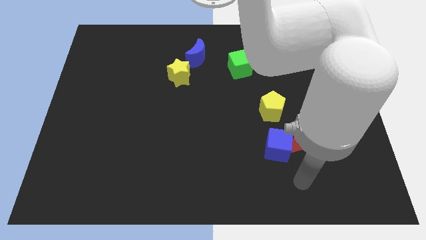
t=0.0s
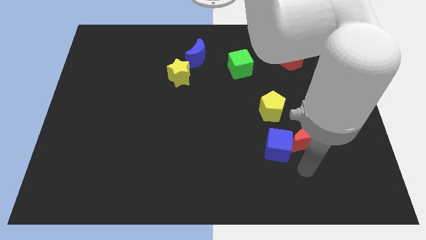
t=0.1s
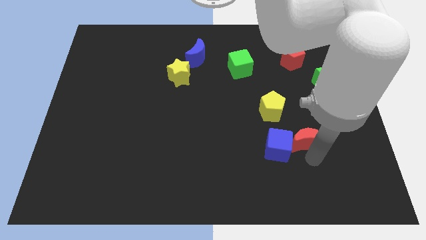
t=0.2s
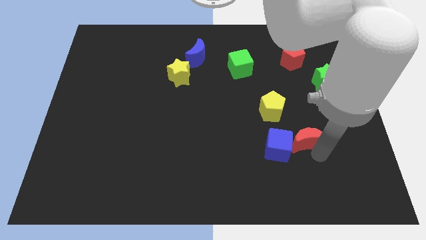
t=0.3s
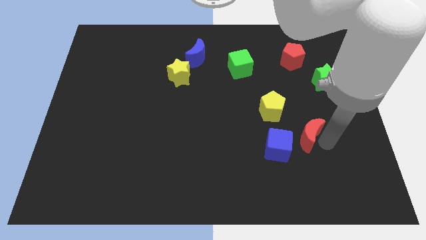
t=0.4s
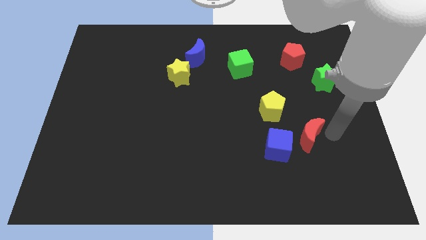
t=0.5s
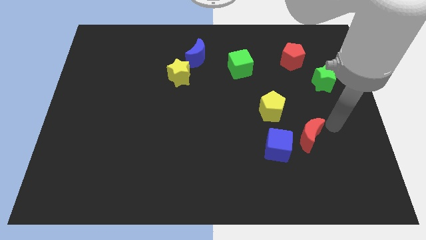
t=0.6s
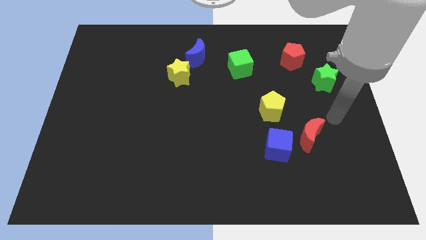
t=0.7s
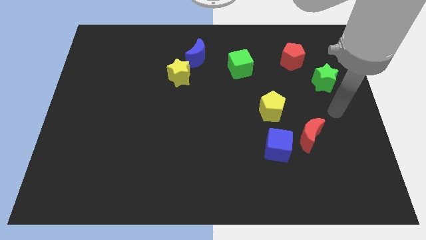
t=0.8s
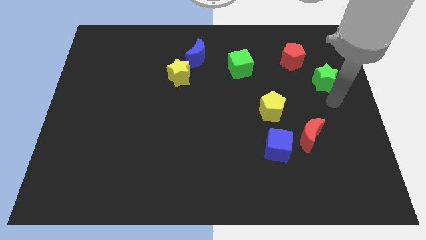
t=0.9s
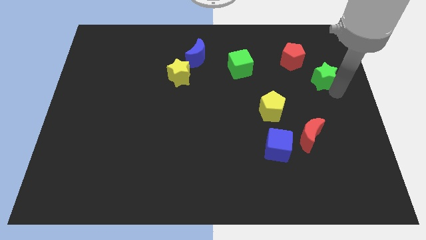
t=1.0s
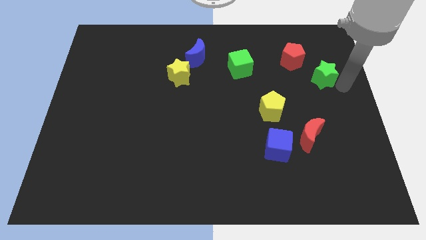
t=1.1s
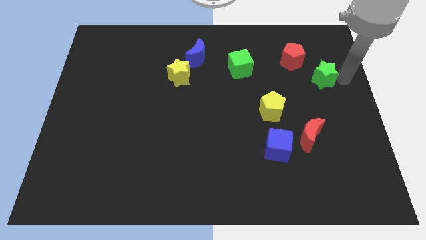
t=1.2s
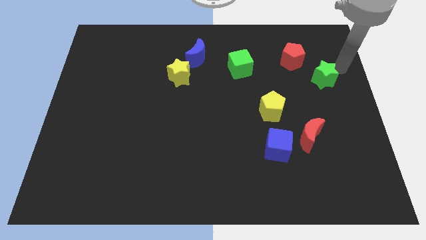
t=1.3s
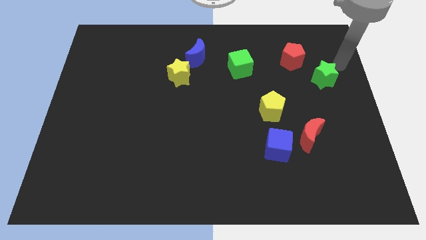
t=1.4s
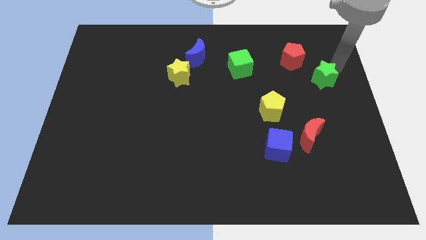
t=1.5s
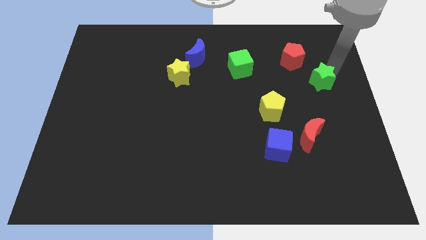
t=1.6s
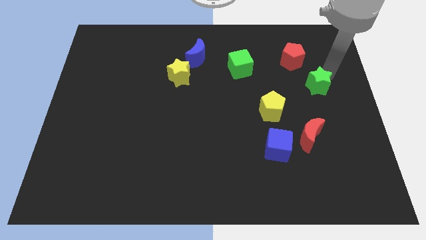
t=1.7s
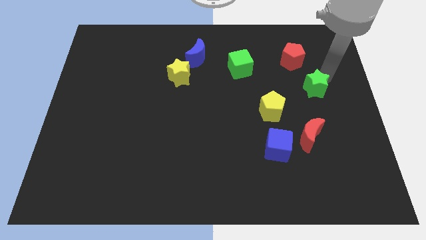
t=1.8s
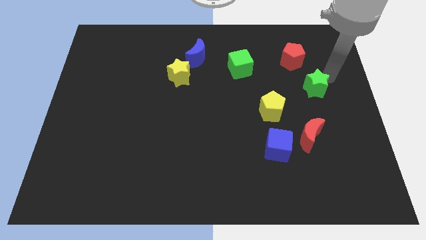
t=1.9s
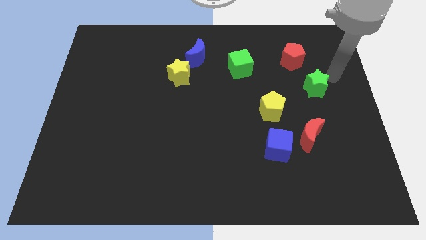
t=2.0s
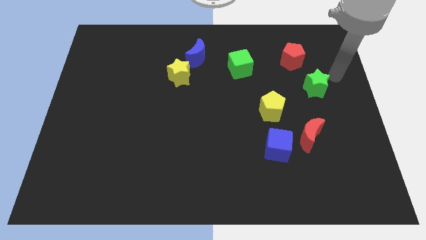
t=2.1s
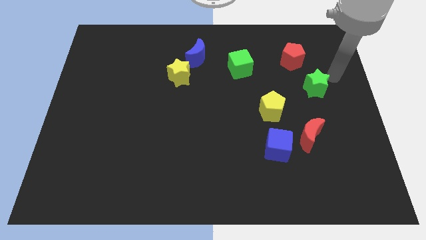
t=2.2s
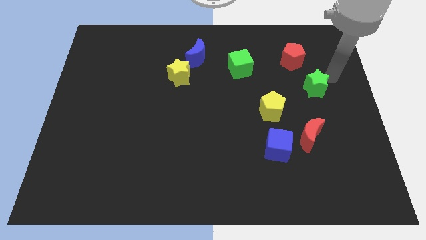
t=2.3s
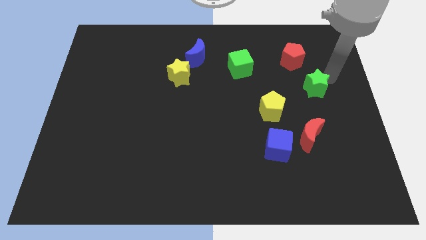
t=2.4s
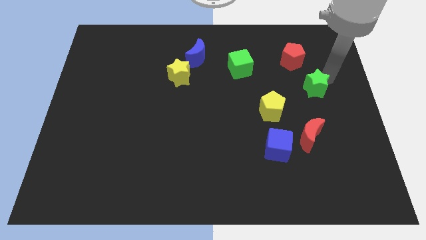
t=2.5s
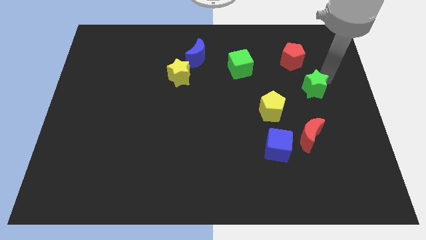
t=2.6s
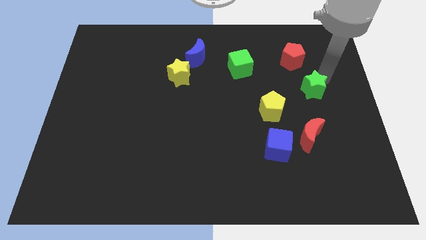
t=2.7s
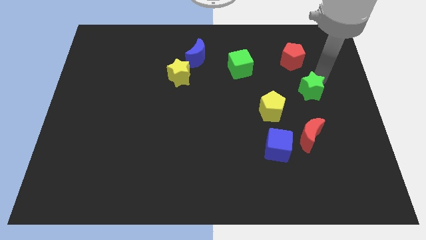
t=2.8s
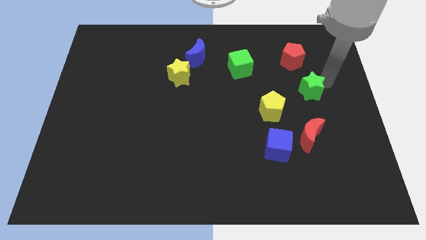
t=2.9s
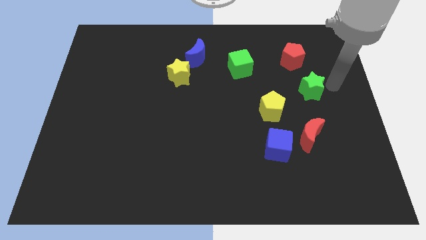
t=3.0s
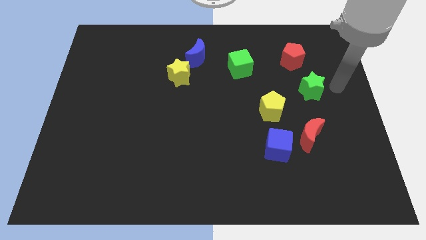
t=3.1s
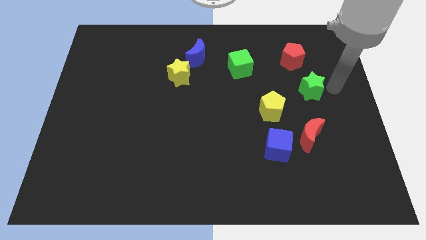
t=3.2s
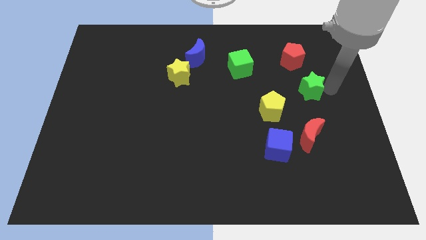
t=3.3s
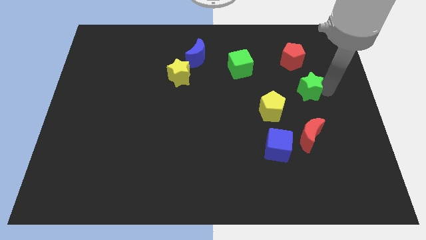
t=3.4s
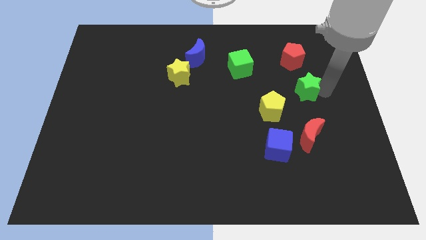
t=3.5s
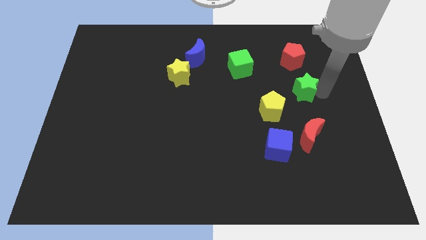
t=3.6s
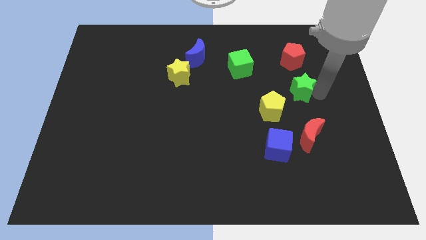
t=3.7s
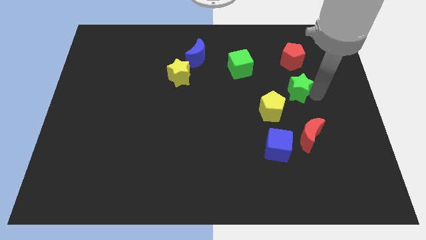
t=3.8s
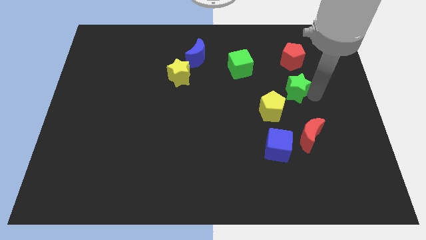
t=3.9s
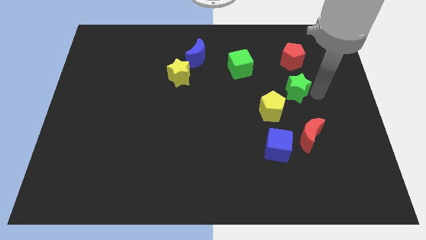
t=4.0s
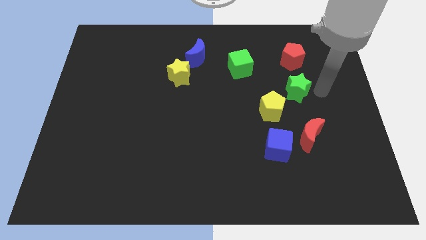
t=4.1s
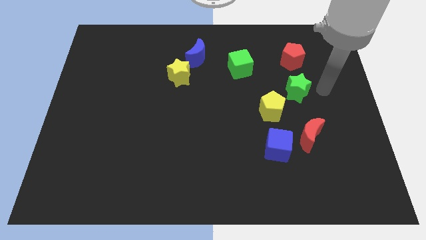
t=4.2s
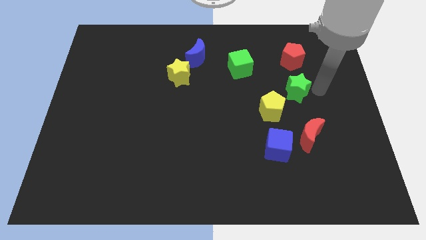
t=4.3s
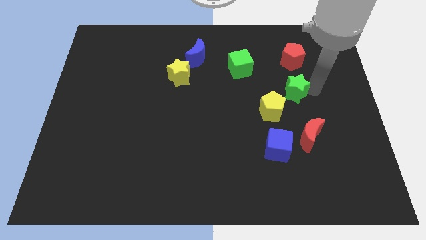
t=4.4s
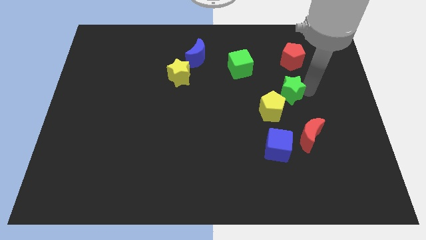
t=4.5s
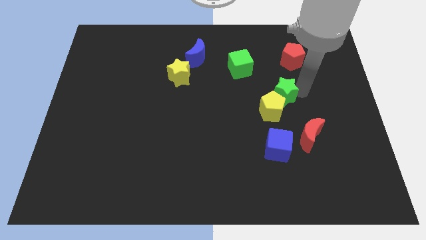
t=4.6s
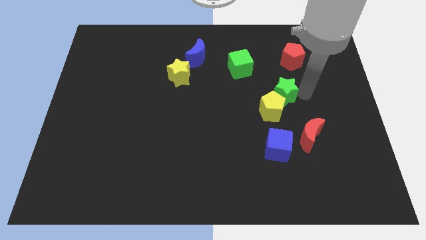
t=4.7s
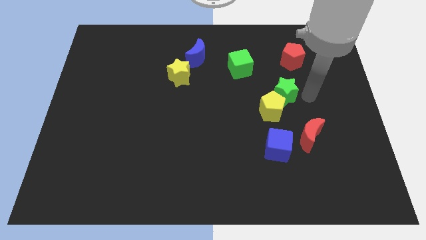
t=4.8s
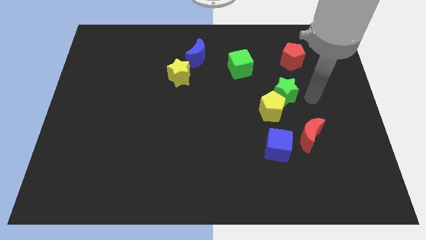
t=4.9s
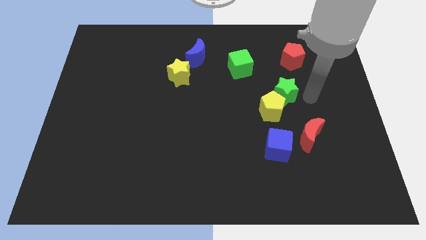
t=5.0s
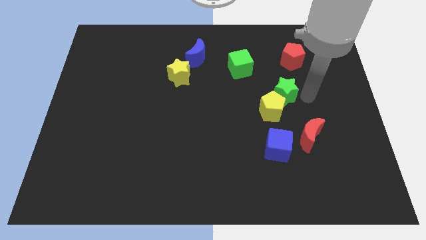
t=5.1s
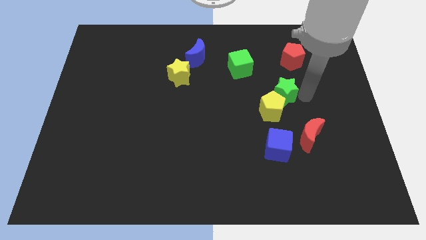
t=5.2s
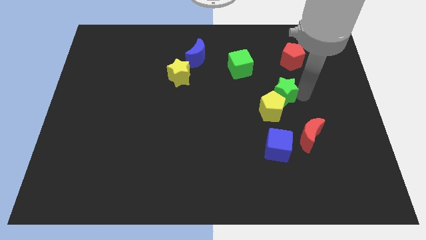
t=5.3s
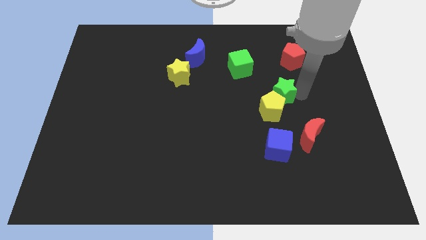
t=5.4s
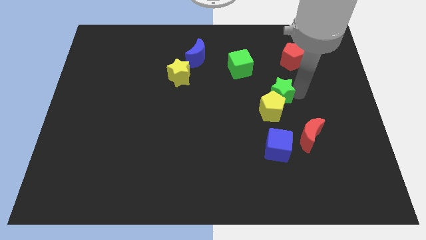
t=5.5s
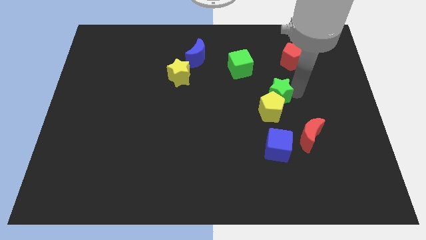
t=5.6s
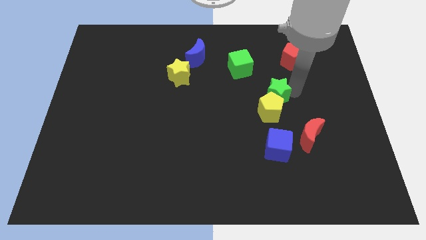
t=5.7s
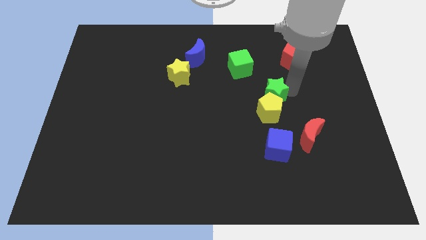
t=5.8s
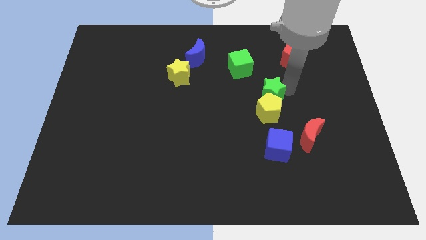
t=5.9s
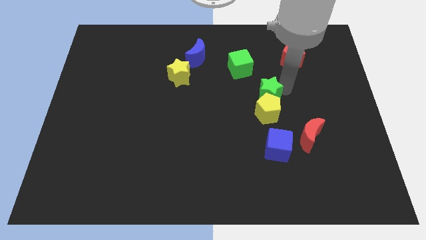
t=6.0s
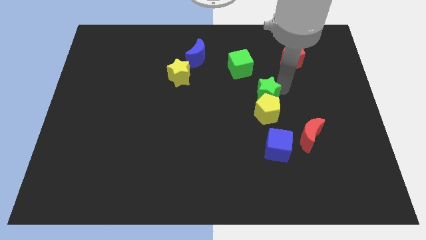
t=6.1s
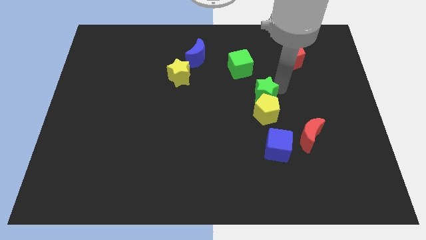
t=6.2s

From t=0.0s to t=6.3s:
slide the green star to the middle of the board

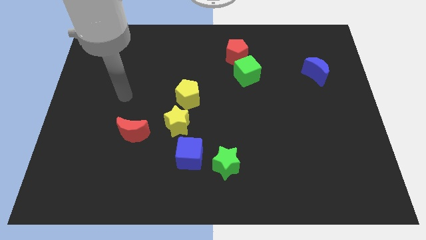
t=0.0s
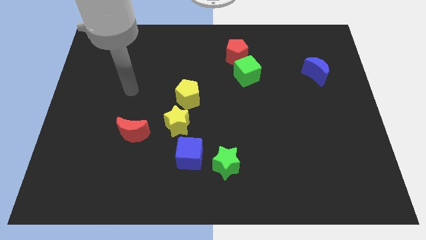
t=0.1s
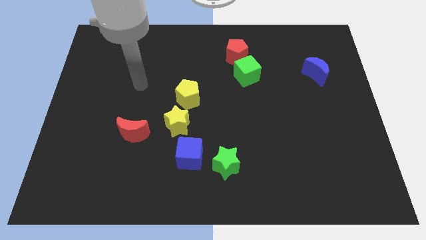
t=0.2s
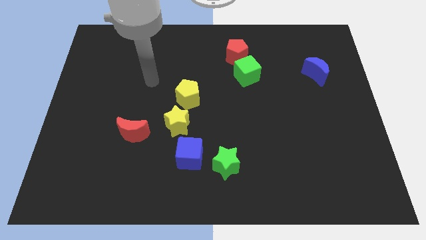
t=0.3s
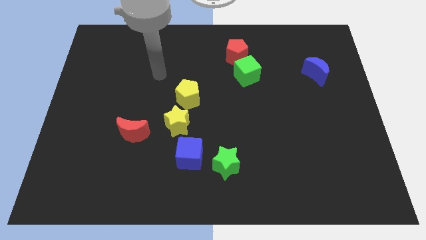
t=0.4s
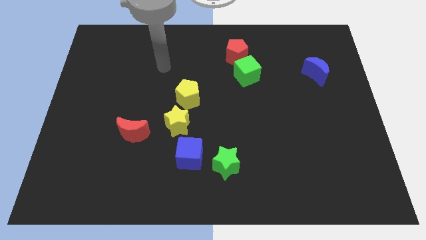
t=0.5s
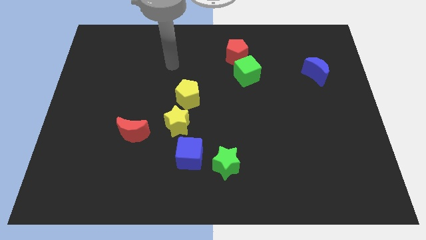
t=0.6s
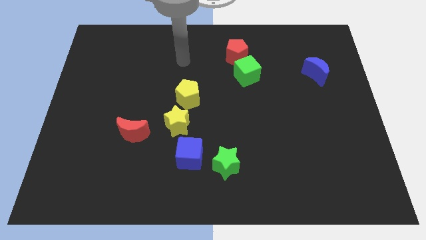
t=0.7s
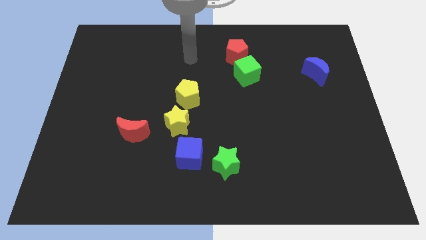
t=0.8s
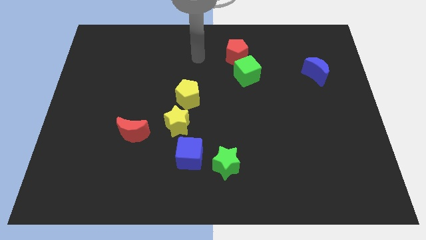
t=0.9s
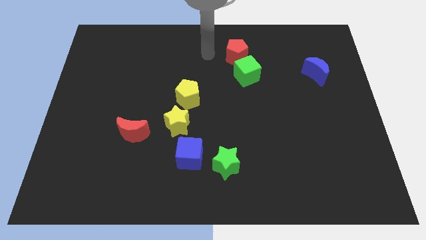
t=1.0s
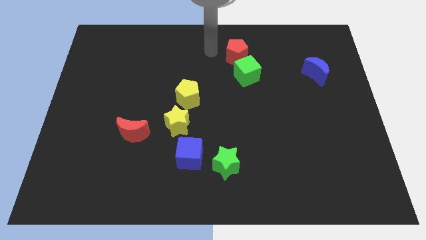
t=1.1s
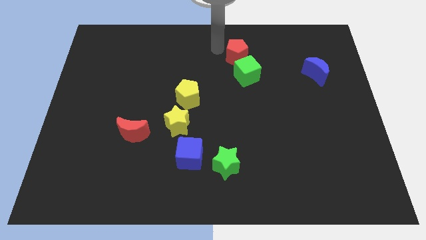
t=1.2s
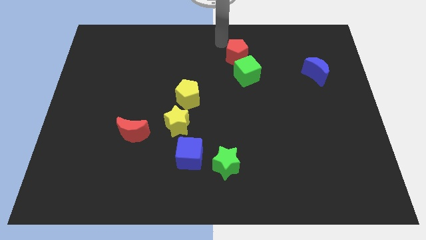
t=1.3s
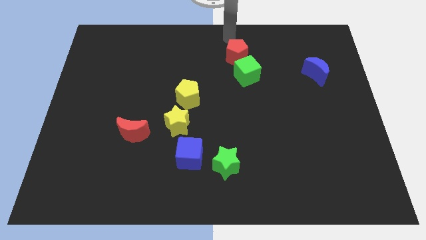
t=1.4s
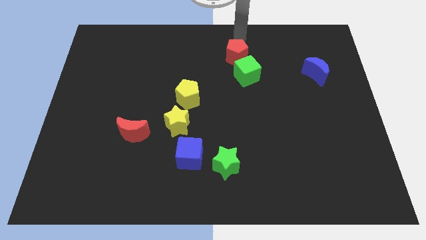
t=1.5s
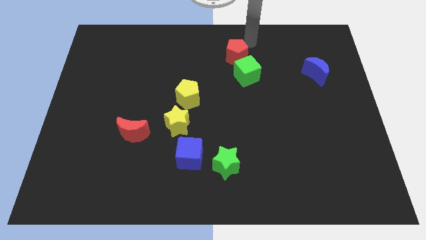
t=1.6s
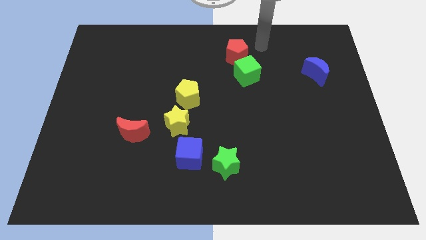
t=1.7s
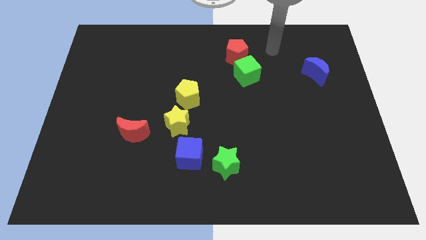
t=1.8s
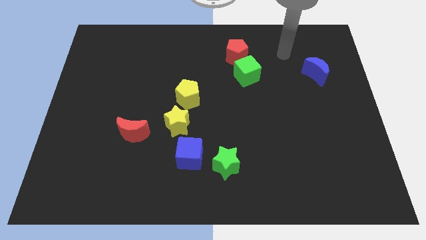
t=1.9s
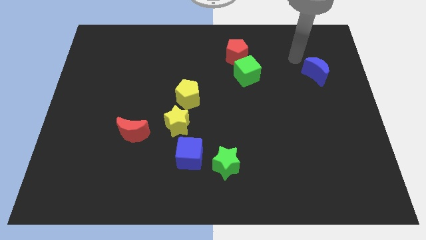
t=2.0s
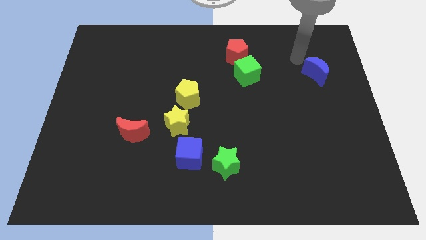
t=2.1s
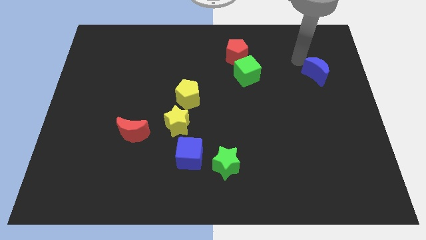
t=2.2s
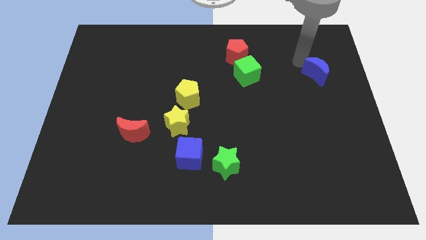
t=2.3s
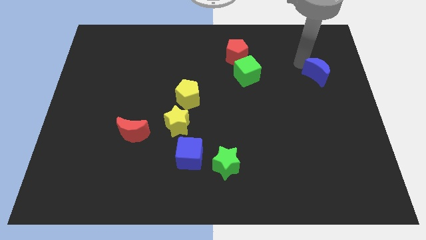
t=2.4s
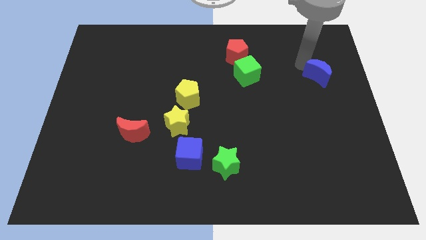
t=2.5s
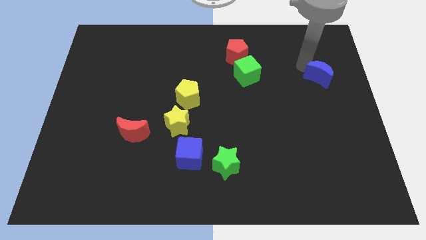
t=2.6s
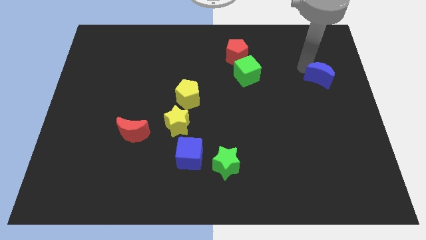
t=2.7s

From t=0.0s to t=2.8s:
put the blue moon to the right side of the board
